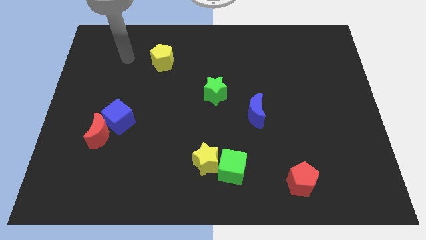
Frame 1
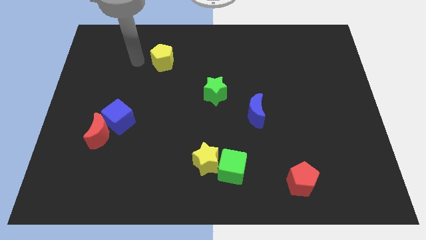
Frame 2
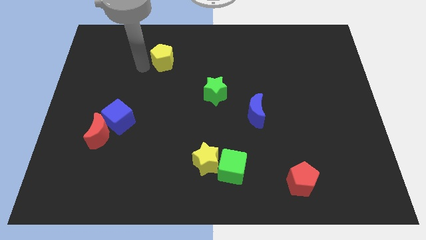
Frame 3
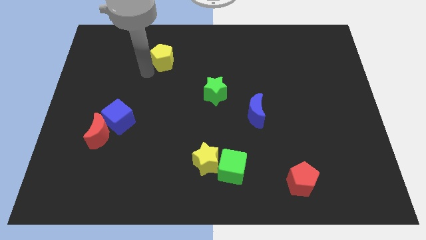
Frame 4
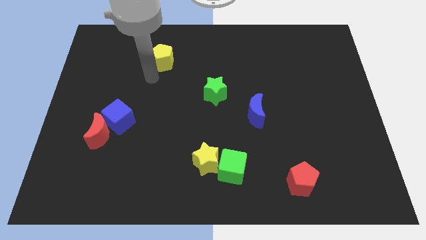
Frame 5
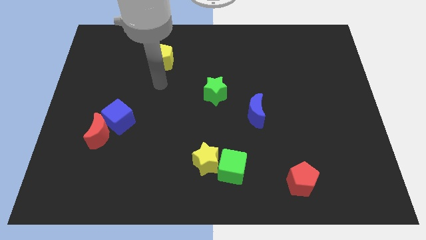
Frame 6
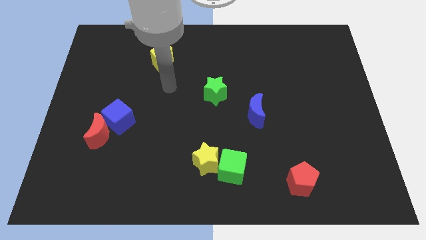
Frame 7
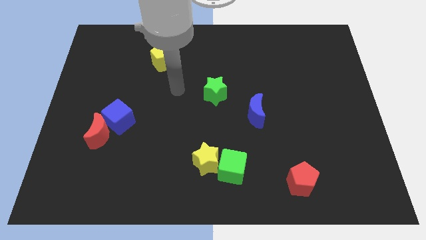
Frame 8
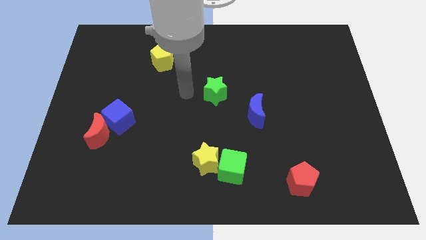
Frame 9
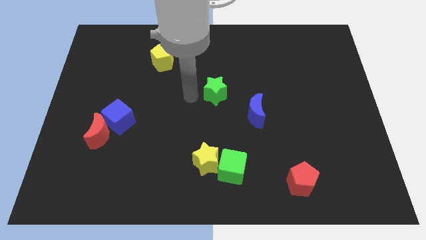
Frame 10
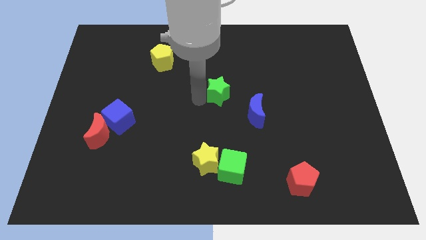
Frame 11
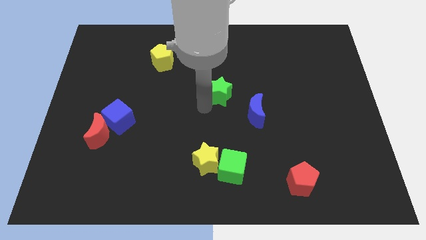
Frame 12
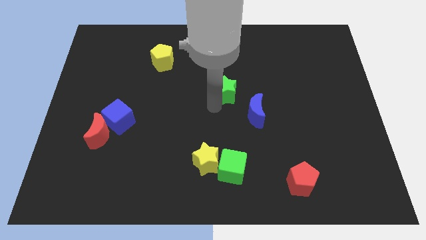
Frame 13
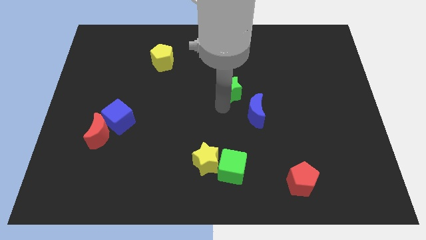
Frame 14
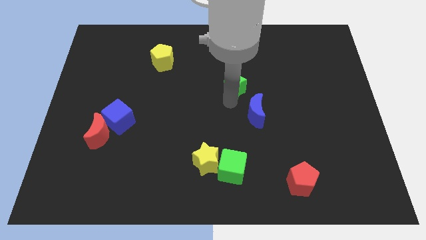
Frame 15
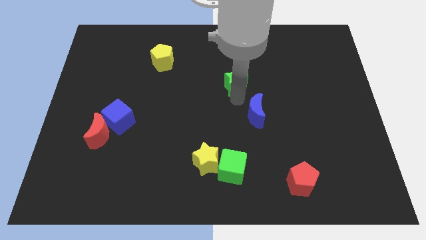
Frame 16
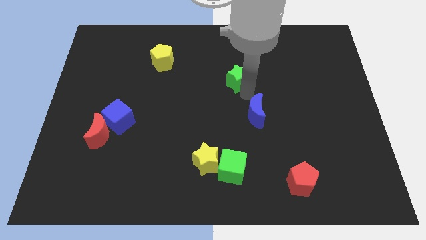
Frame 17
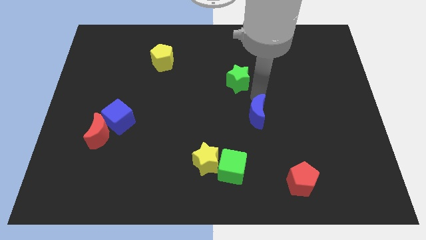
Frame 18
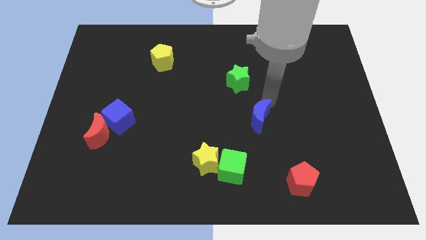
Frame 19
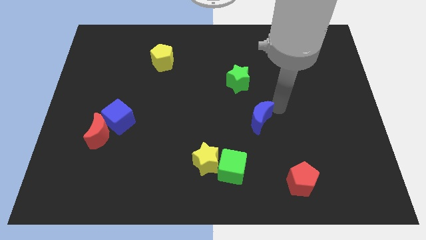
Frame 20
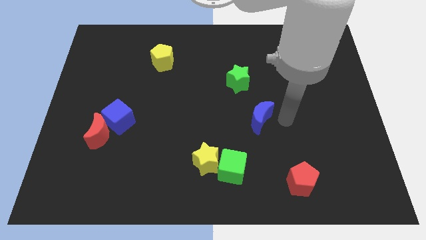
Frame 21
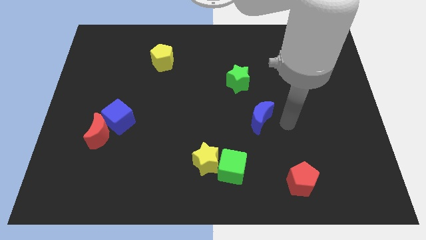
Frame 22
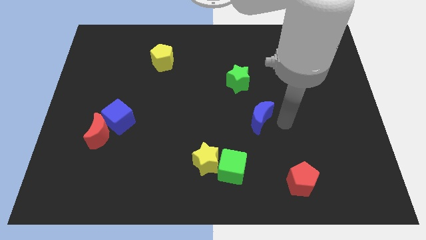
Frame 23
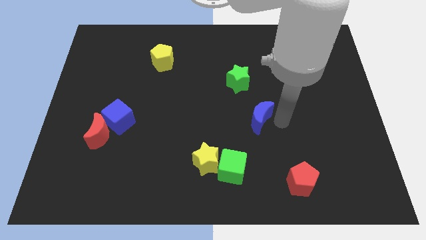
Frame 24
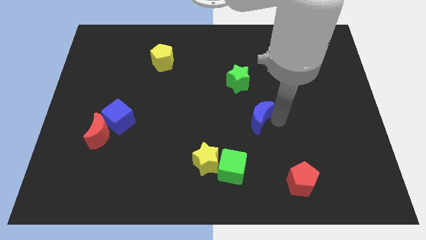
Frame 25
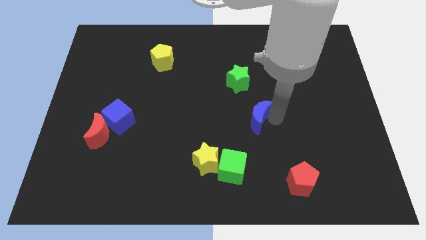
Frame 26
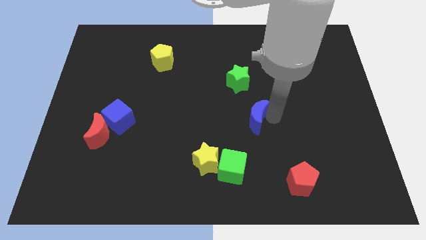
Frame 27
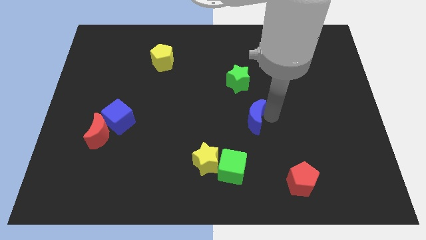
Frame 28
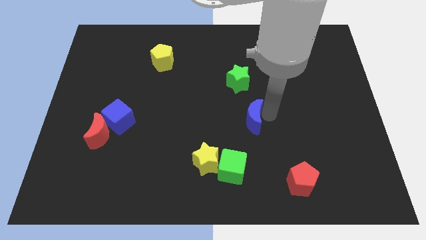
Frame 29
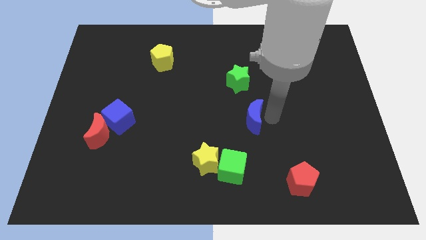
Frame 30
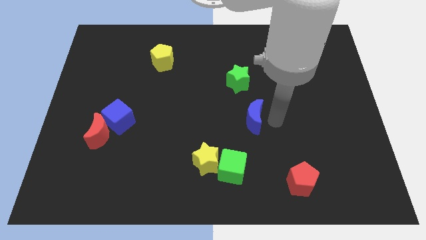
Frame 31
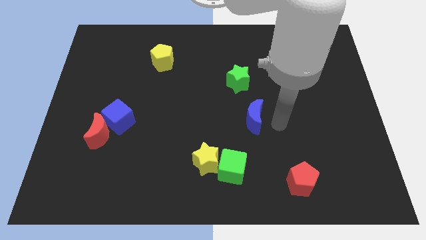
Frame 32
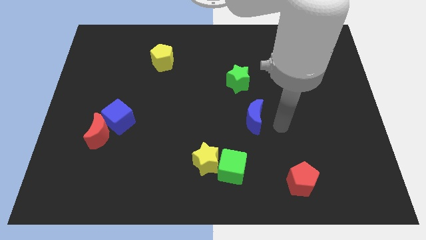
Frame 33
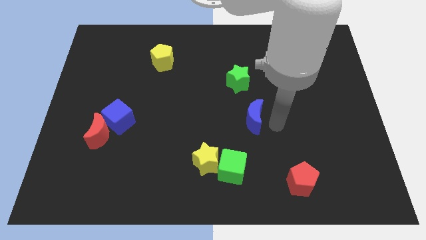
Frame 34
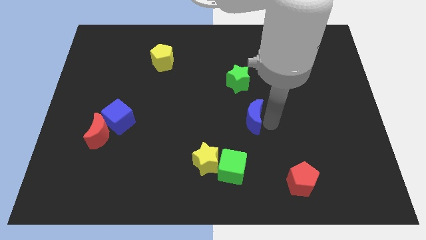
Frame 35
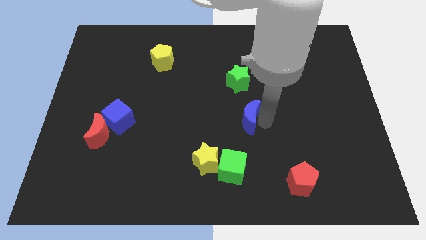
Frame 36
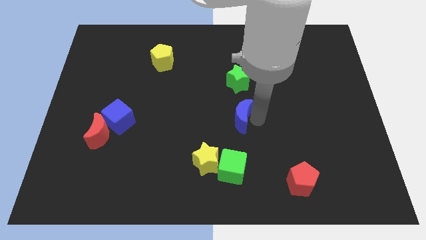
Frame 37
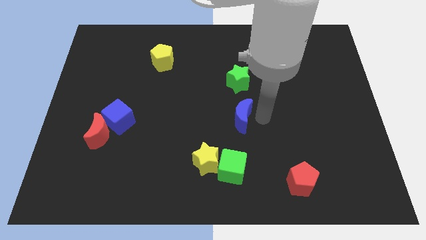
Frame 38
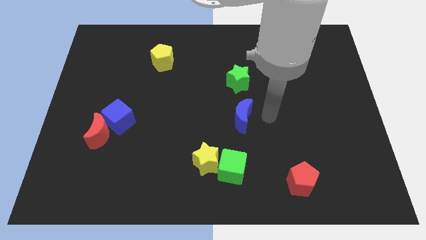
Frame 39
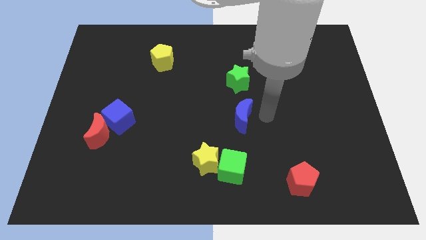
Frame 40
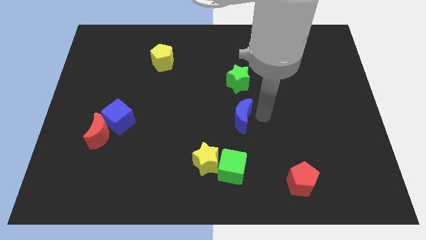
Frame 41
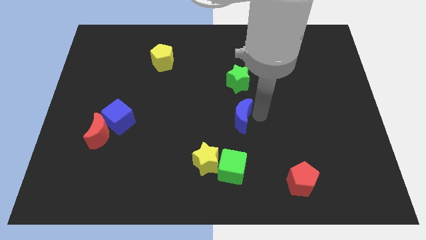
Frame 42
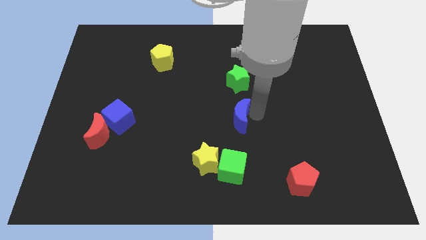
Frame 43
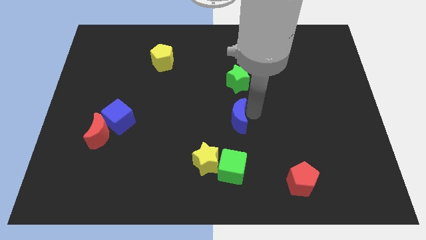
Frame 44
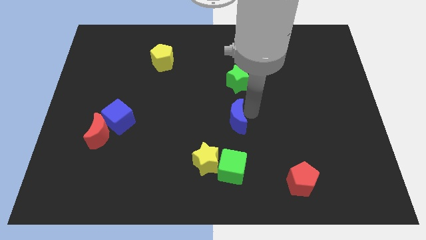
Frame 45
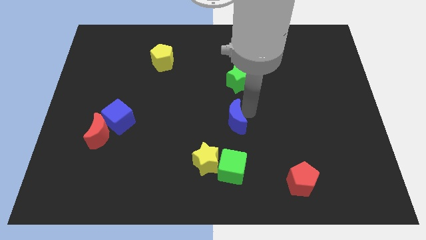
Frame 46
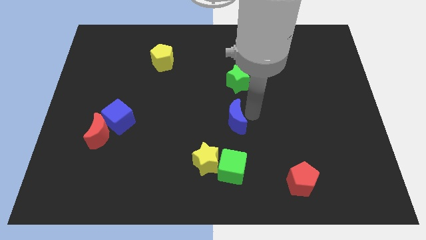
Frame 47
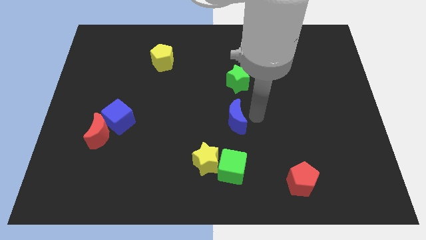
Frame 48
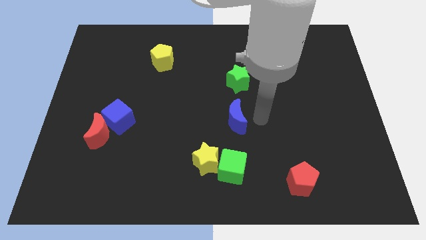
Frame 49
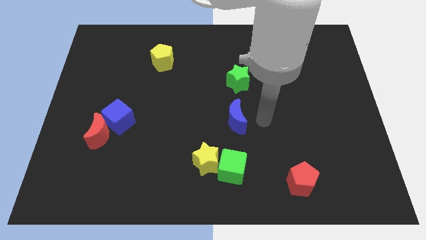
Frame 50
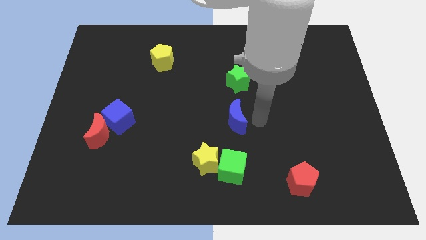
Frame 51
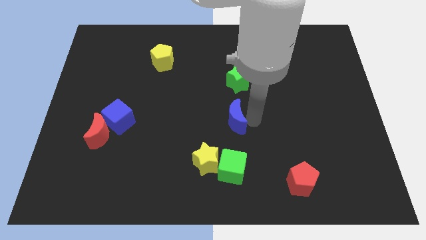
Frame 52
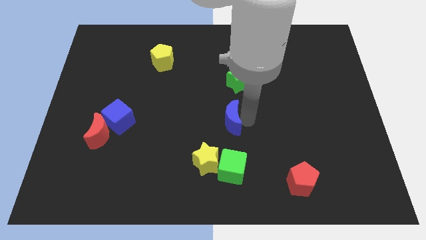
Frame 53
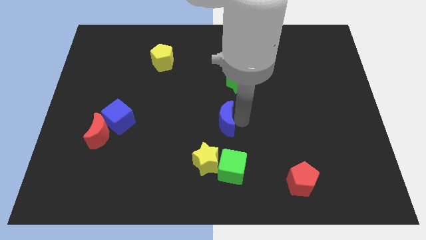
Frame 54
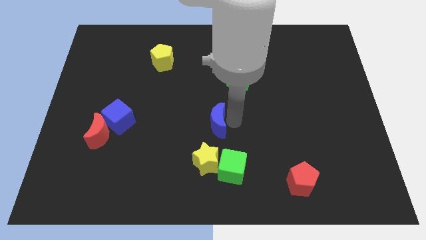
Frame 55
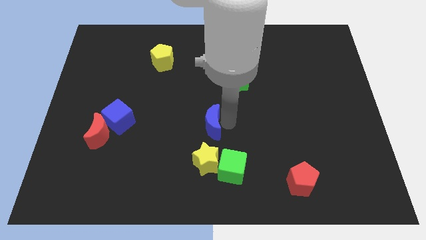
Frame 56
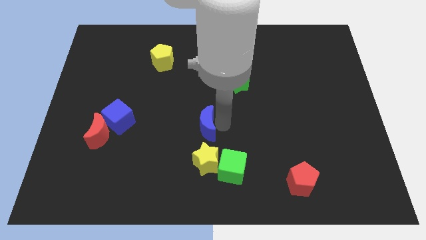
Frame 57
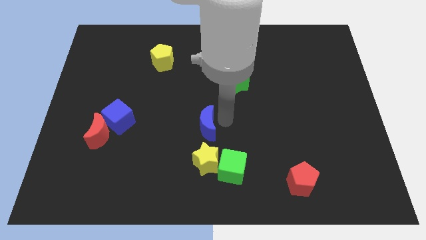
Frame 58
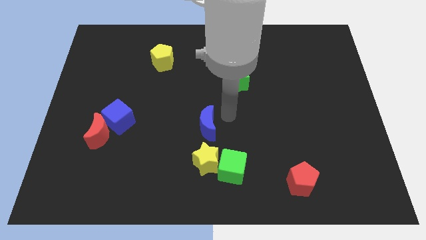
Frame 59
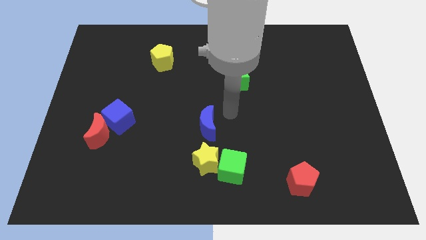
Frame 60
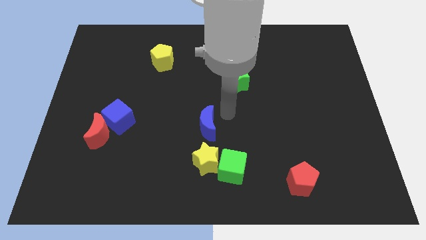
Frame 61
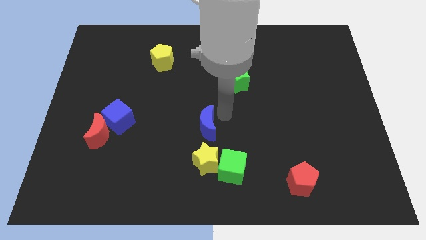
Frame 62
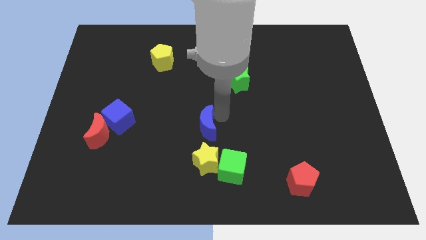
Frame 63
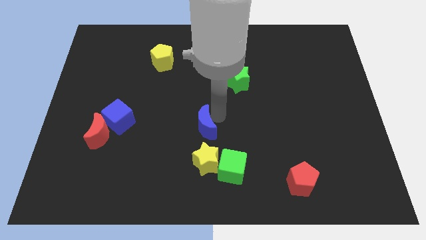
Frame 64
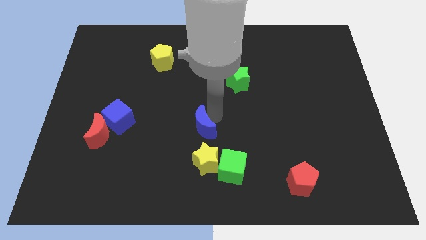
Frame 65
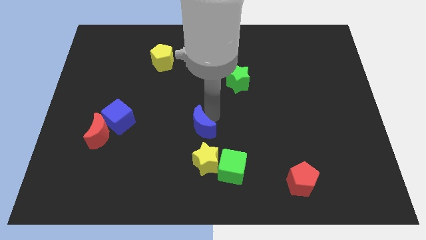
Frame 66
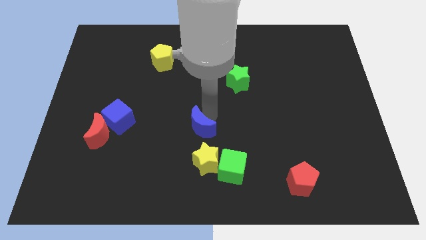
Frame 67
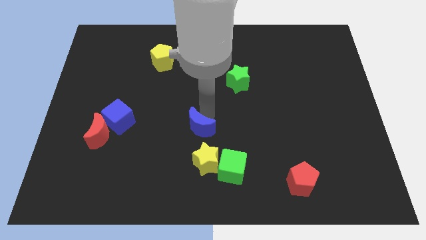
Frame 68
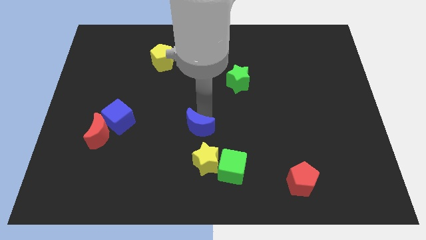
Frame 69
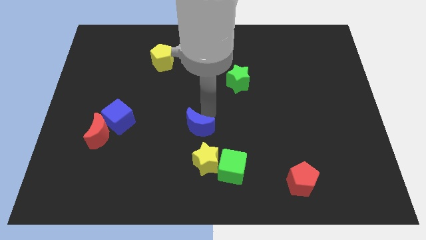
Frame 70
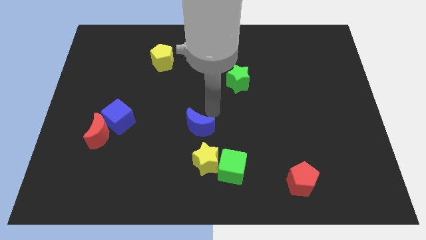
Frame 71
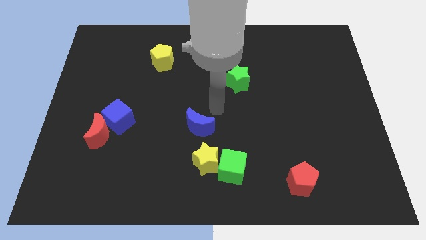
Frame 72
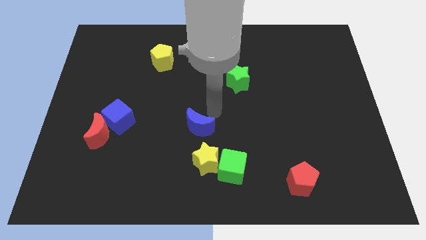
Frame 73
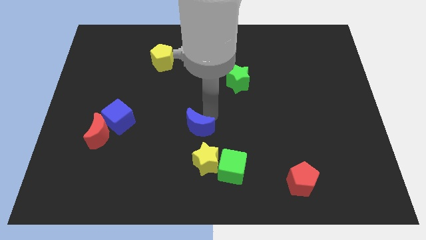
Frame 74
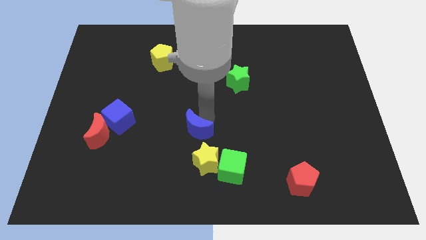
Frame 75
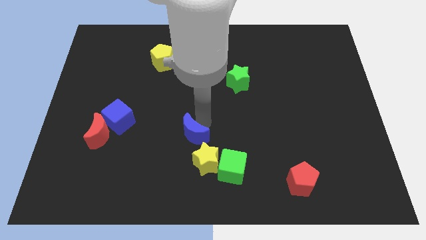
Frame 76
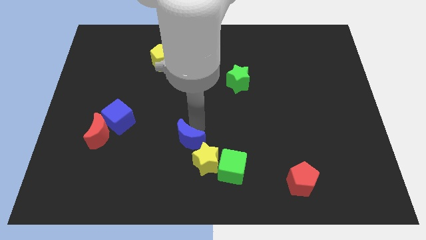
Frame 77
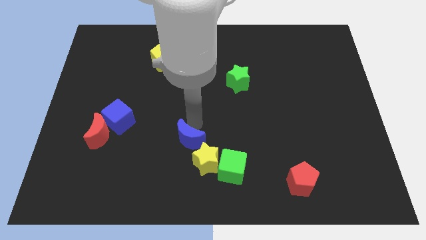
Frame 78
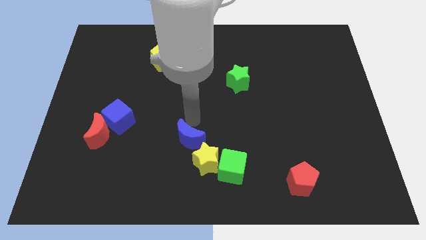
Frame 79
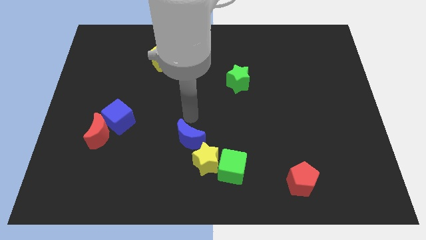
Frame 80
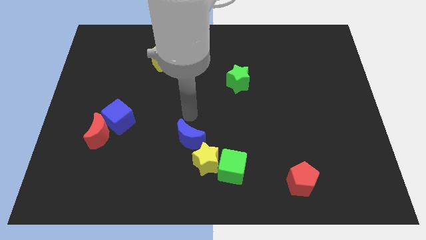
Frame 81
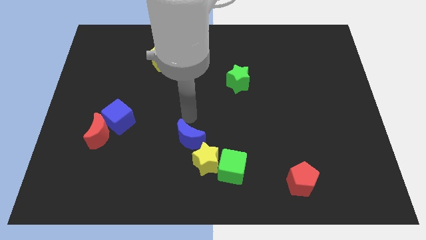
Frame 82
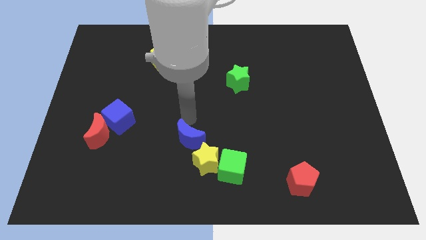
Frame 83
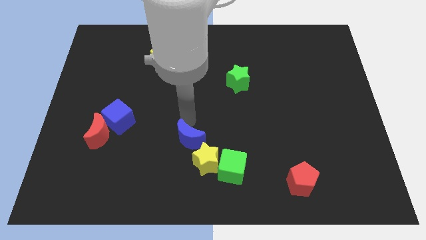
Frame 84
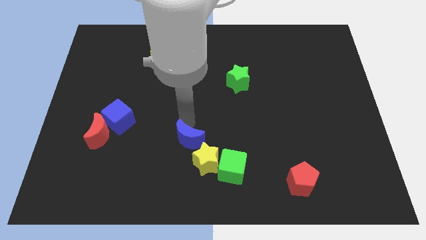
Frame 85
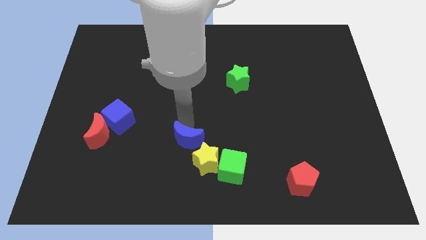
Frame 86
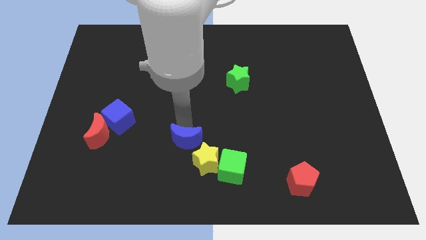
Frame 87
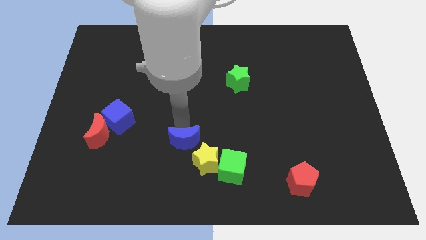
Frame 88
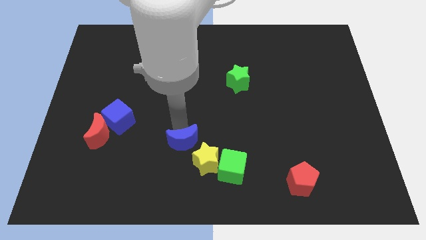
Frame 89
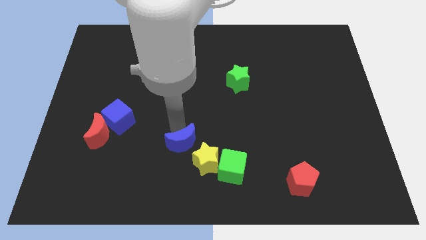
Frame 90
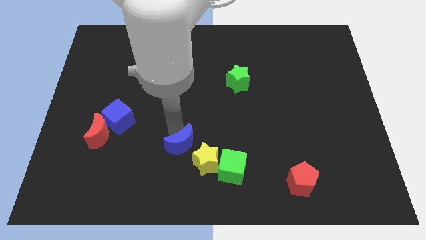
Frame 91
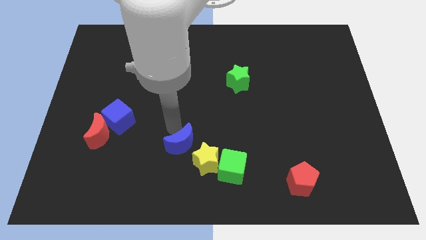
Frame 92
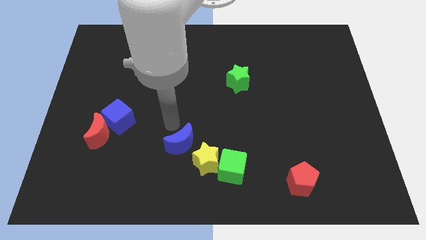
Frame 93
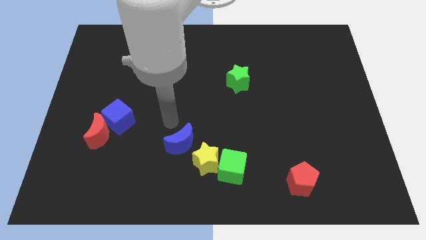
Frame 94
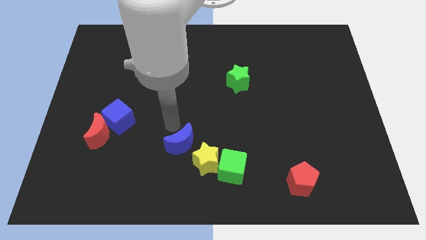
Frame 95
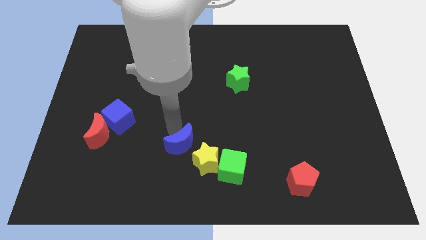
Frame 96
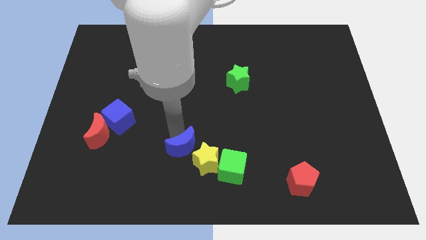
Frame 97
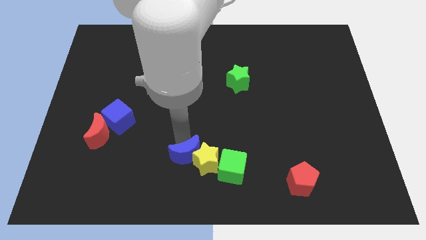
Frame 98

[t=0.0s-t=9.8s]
slide the blue moon diagonally down and to the left of the yellow star
